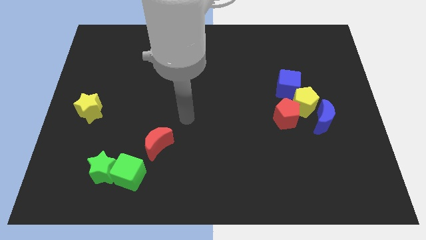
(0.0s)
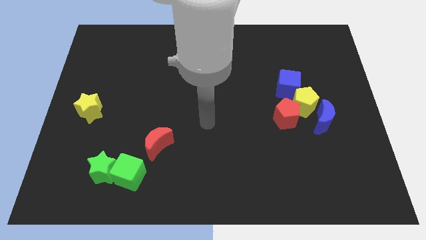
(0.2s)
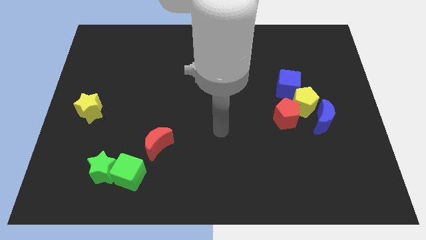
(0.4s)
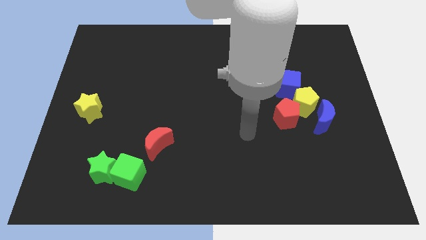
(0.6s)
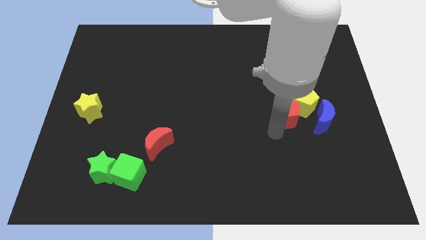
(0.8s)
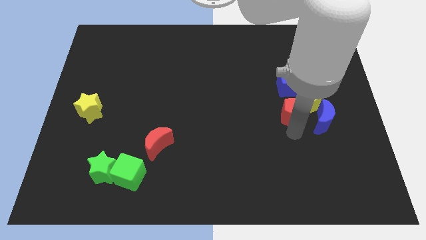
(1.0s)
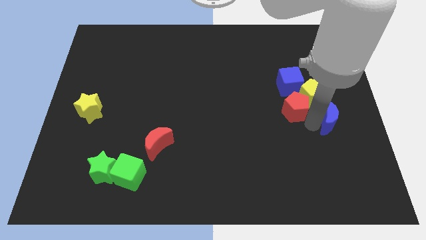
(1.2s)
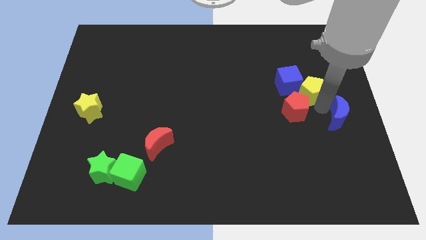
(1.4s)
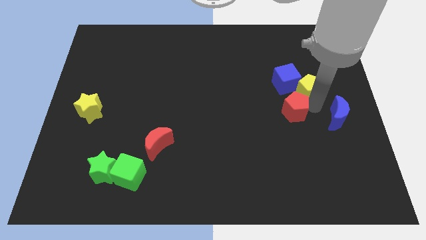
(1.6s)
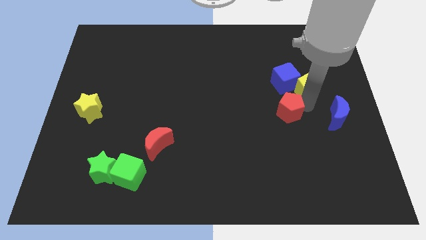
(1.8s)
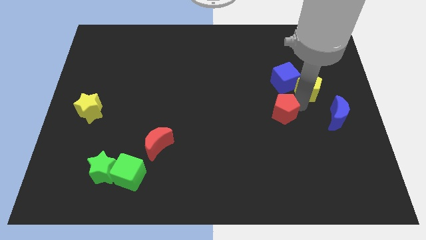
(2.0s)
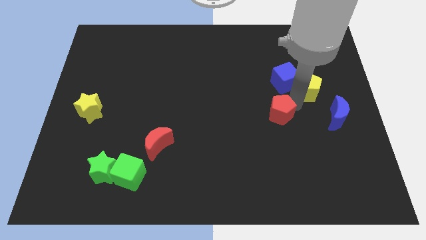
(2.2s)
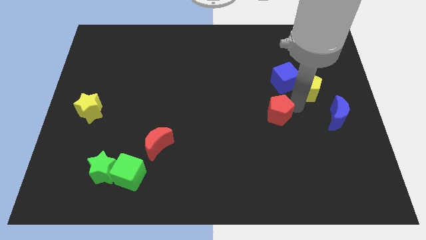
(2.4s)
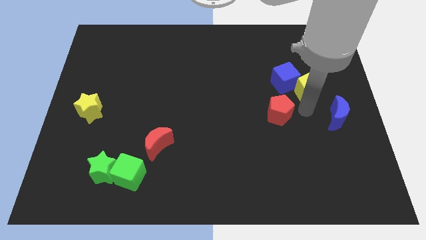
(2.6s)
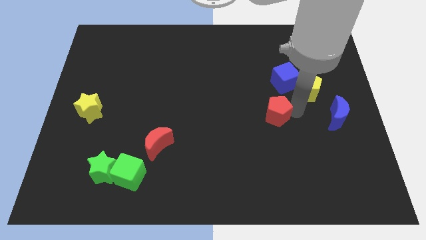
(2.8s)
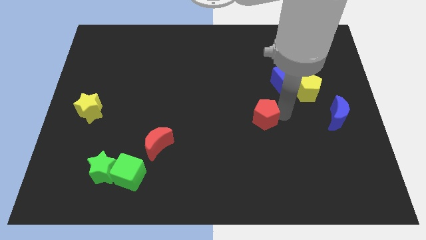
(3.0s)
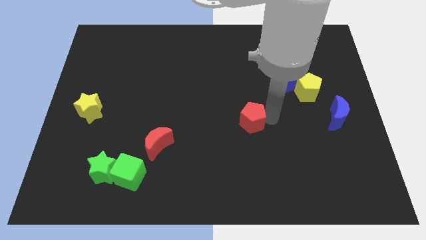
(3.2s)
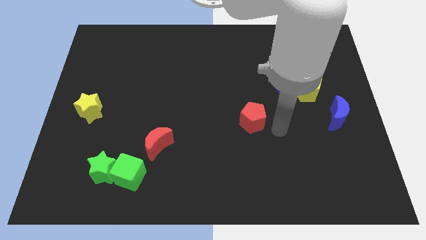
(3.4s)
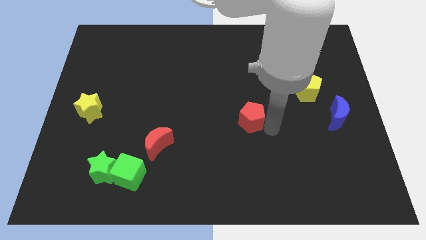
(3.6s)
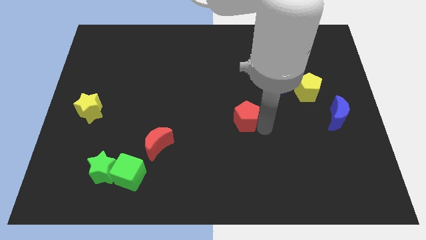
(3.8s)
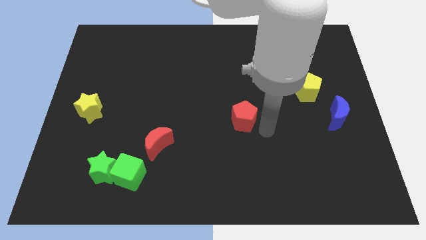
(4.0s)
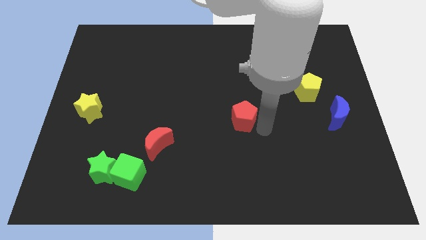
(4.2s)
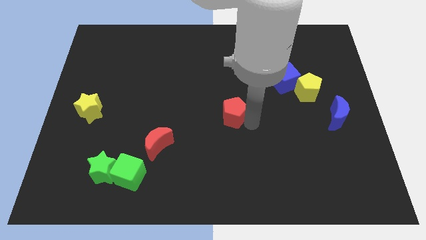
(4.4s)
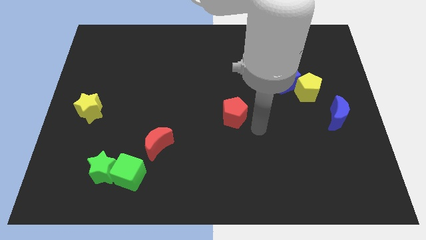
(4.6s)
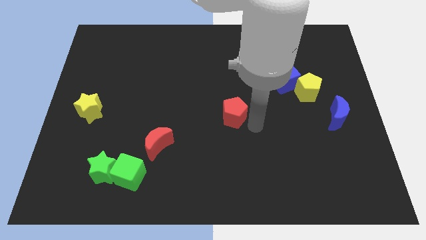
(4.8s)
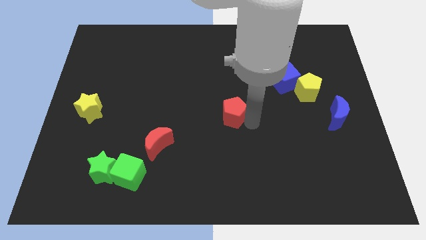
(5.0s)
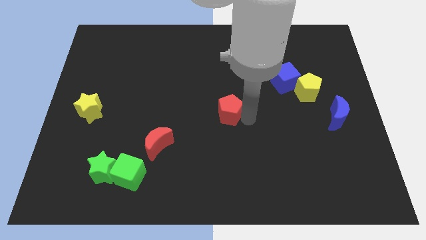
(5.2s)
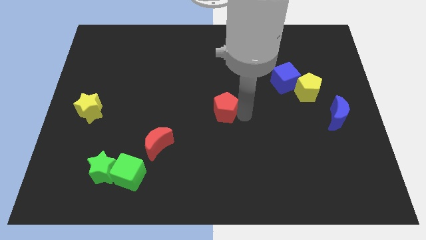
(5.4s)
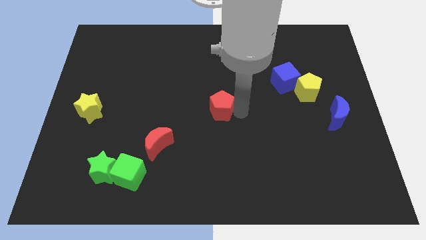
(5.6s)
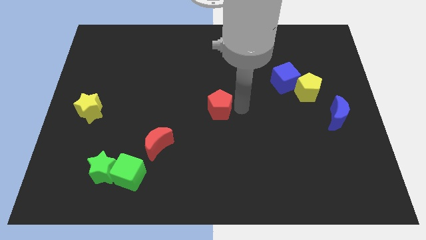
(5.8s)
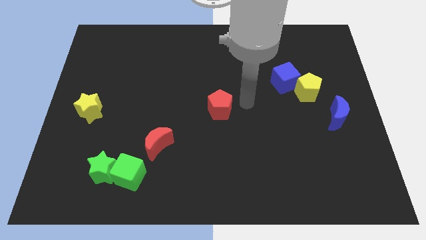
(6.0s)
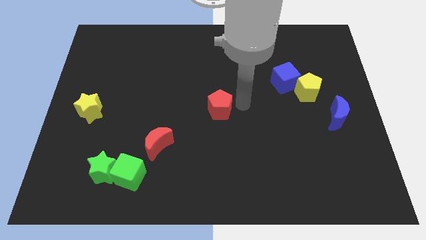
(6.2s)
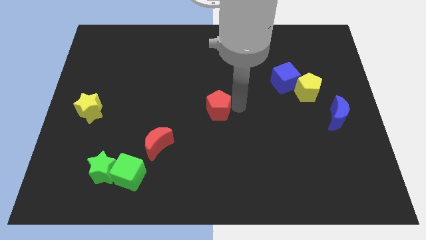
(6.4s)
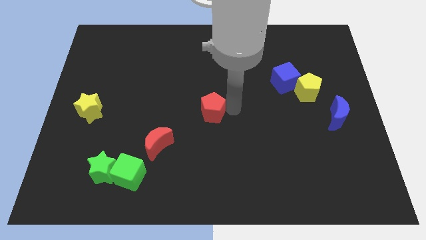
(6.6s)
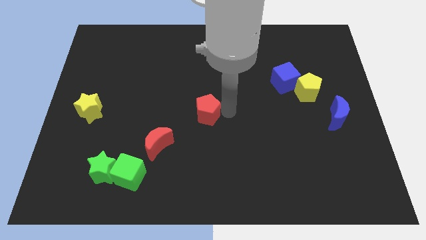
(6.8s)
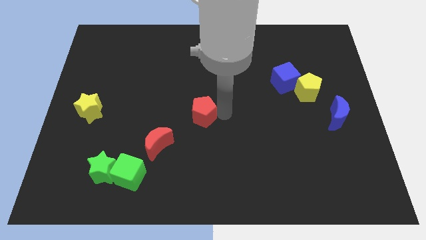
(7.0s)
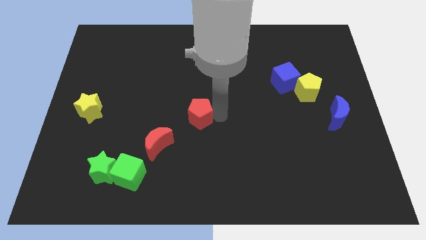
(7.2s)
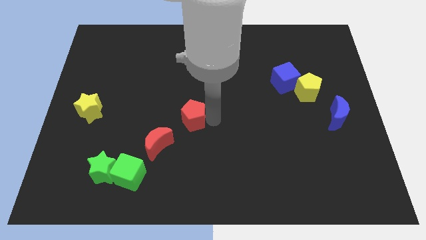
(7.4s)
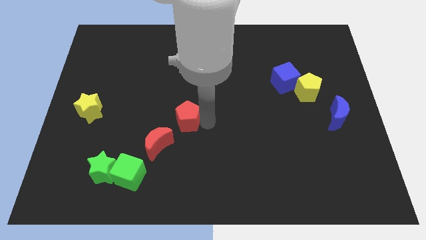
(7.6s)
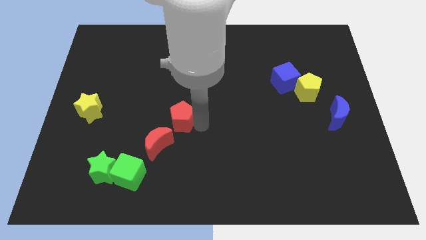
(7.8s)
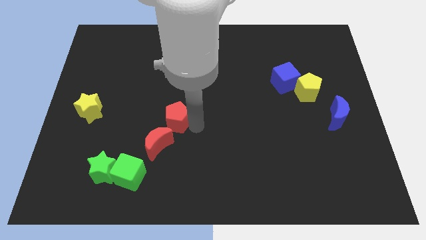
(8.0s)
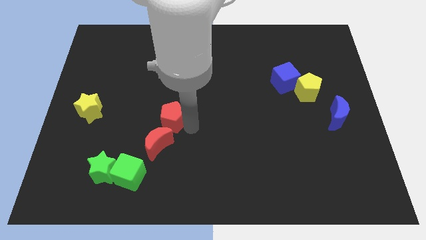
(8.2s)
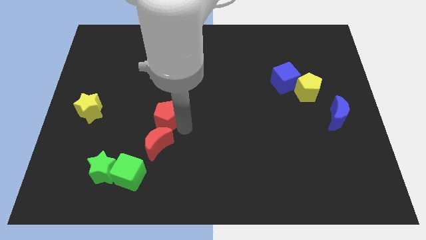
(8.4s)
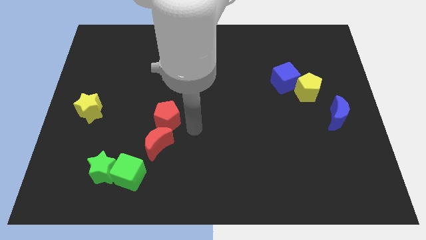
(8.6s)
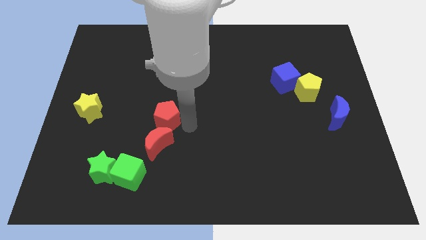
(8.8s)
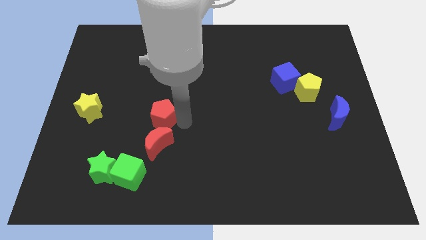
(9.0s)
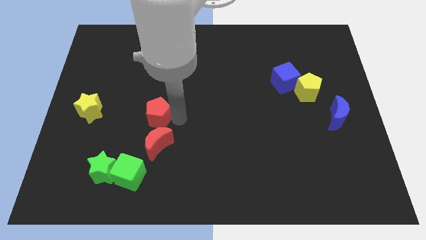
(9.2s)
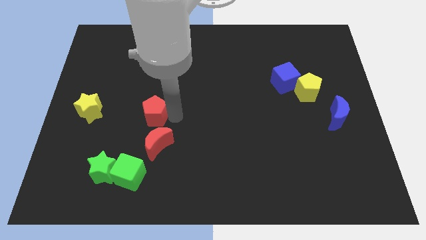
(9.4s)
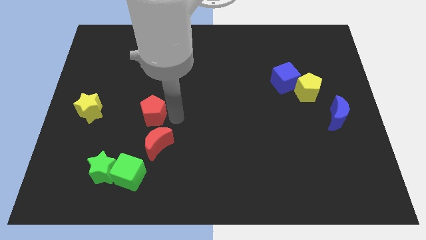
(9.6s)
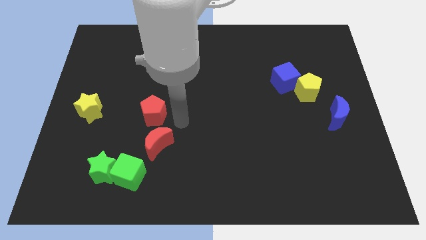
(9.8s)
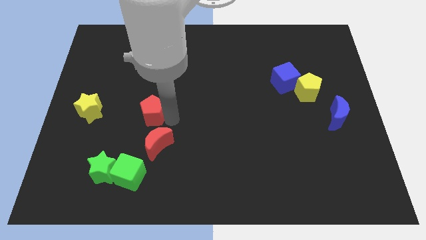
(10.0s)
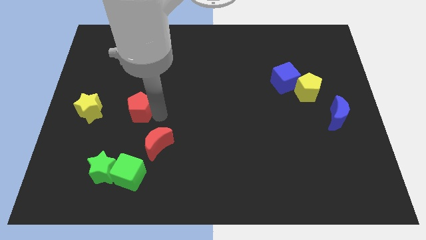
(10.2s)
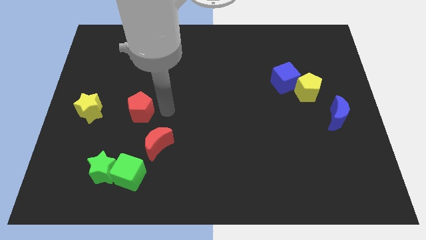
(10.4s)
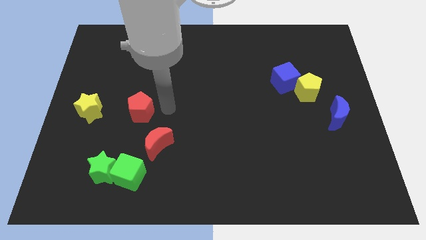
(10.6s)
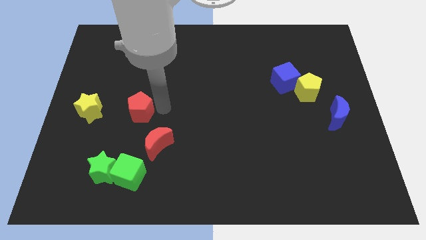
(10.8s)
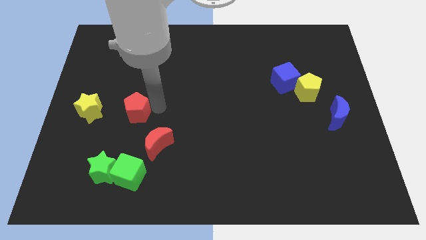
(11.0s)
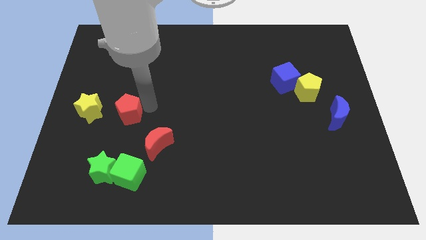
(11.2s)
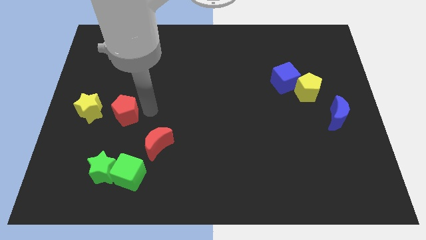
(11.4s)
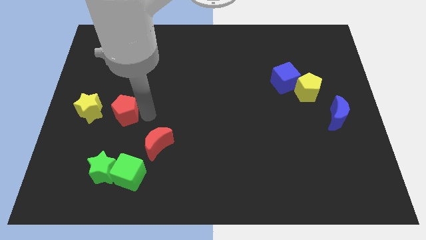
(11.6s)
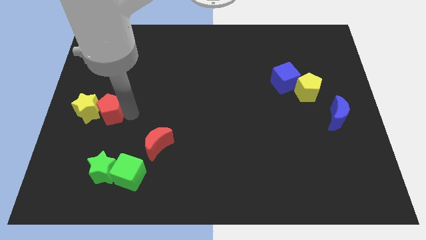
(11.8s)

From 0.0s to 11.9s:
push the red pentagon close to the yellow star

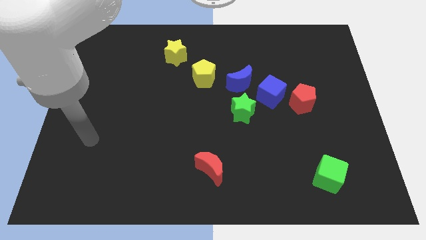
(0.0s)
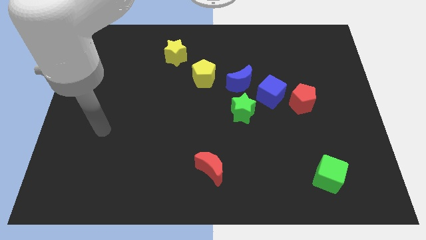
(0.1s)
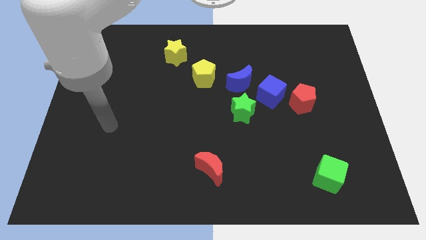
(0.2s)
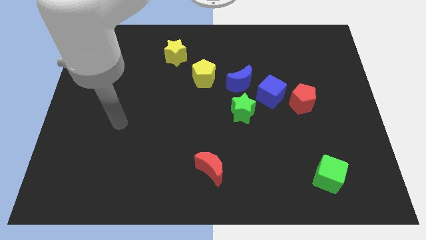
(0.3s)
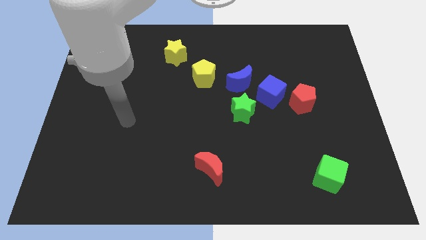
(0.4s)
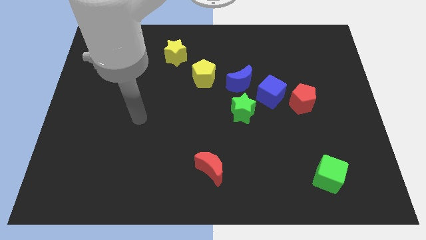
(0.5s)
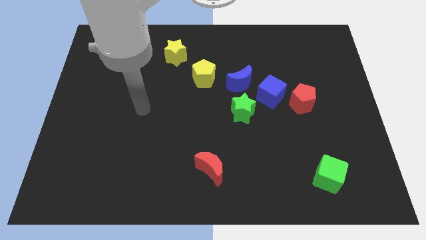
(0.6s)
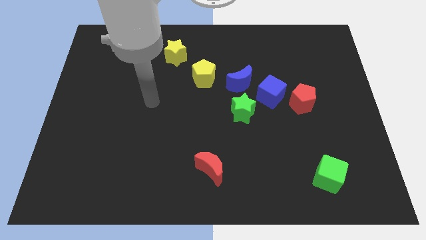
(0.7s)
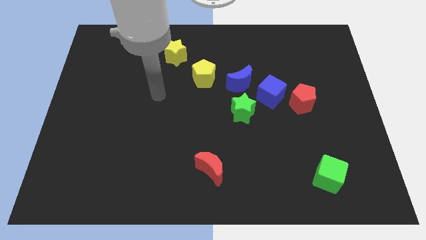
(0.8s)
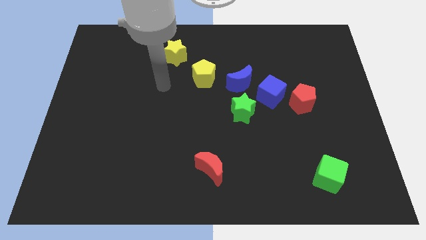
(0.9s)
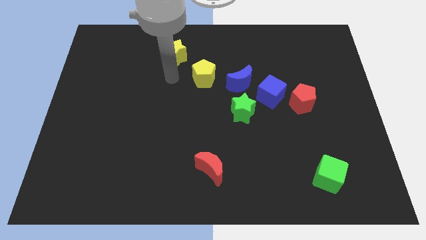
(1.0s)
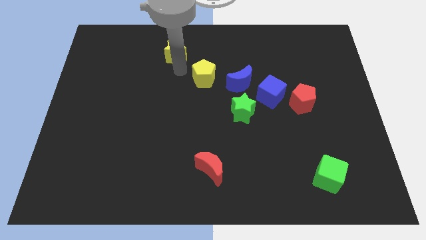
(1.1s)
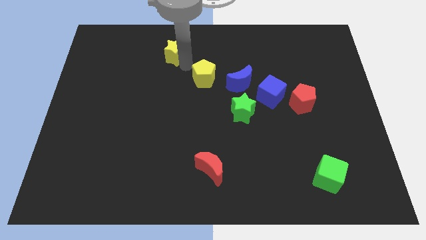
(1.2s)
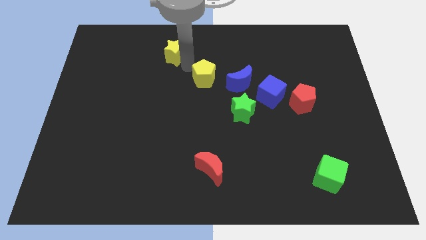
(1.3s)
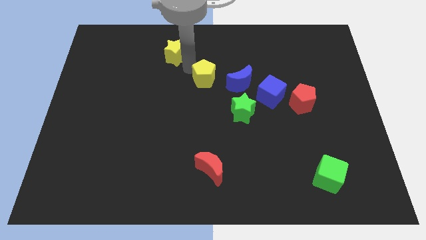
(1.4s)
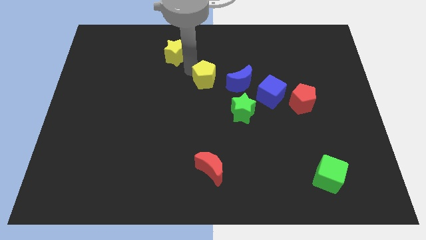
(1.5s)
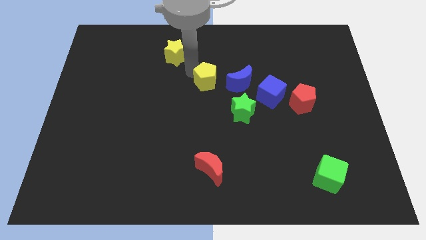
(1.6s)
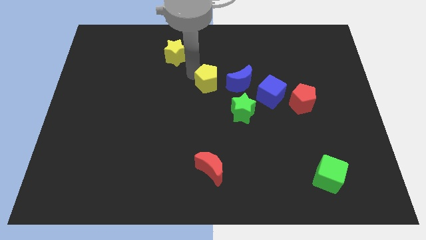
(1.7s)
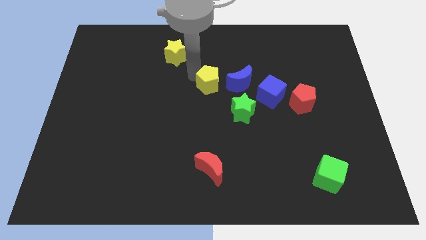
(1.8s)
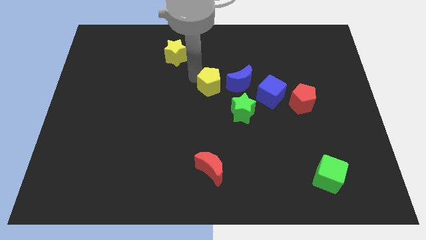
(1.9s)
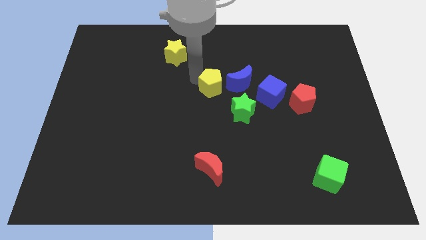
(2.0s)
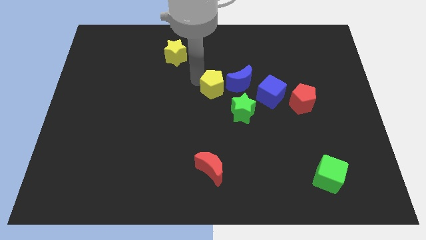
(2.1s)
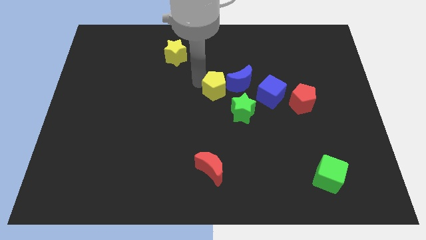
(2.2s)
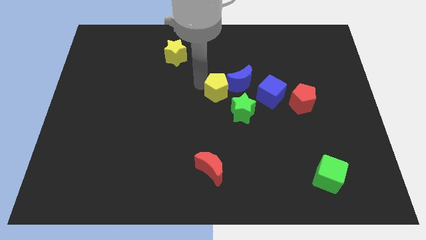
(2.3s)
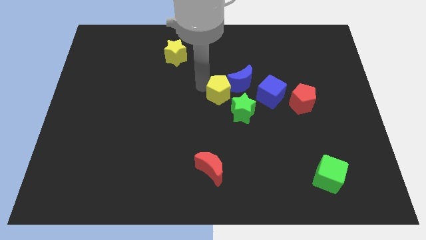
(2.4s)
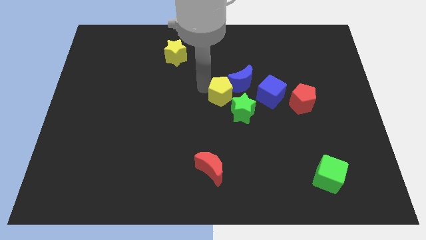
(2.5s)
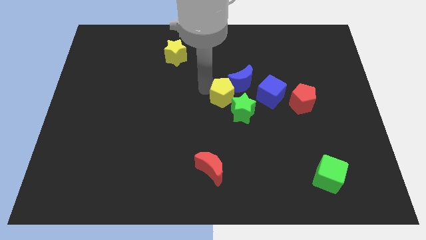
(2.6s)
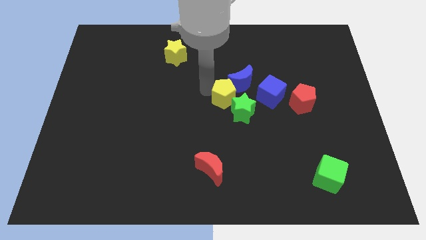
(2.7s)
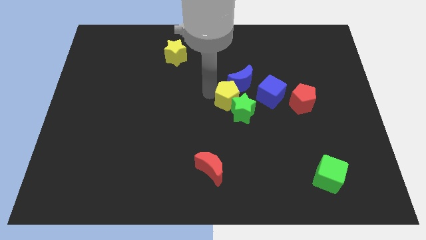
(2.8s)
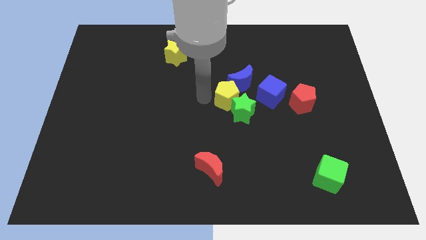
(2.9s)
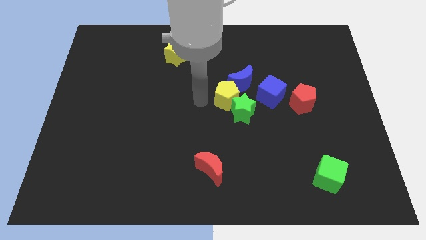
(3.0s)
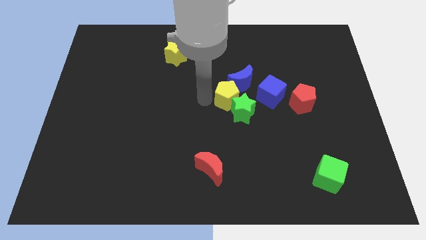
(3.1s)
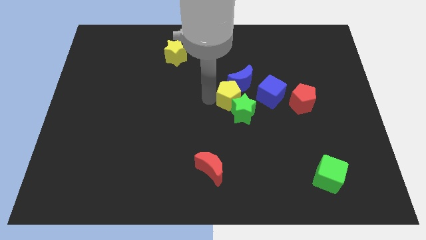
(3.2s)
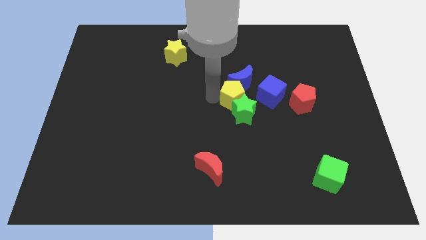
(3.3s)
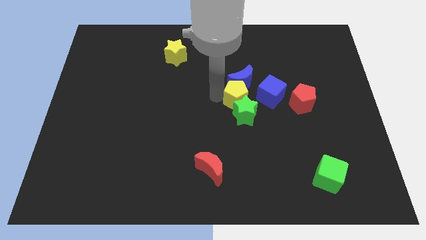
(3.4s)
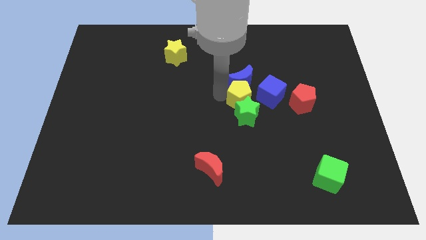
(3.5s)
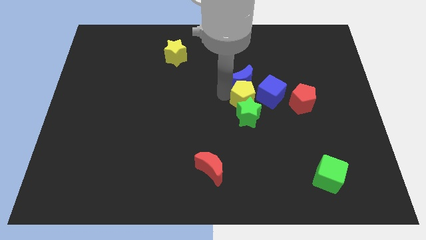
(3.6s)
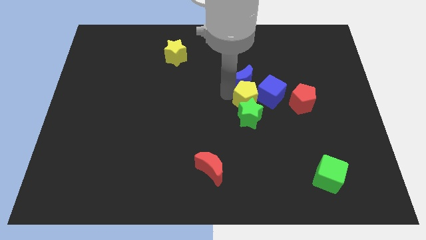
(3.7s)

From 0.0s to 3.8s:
move the yellow pentagon close to the blue cube
